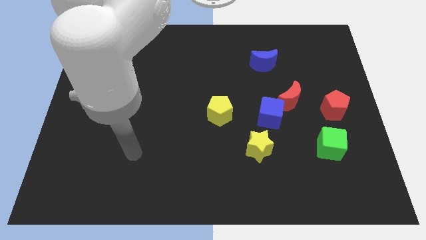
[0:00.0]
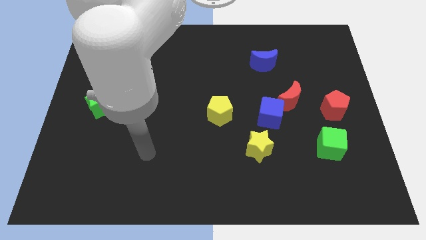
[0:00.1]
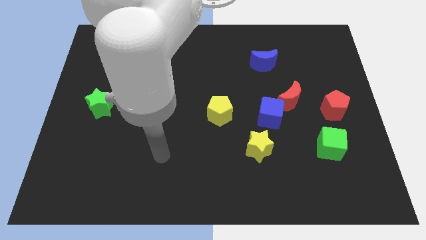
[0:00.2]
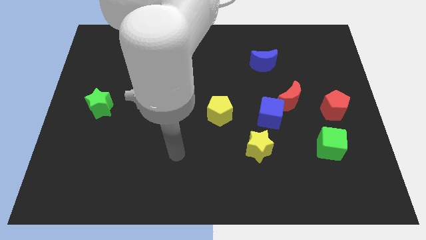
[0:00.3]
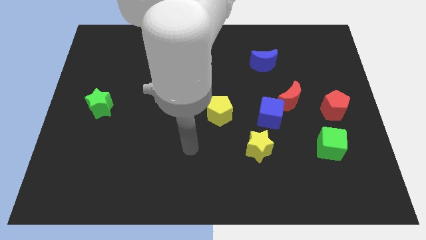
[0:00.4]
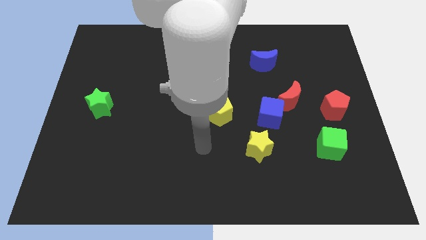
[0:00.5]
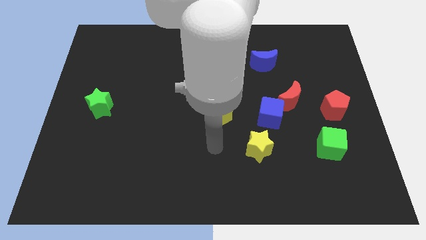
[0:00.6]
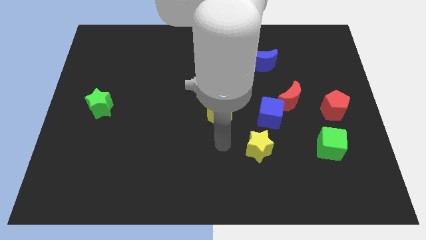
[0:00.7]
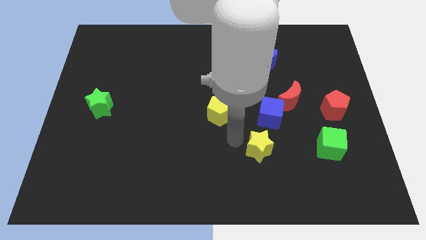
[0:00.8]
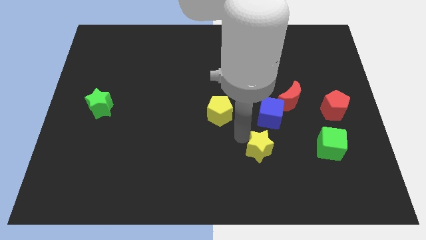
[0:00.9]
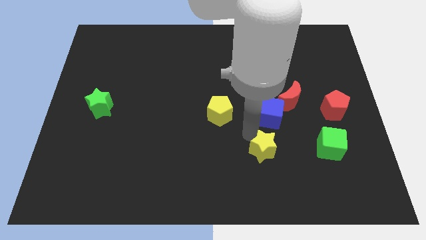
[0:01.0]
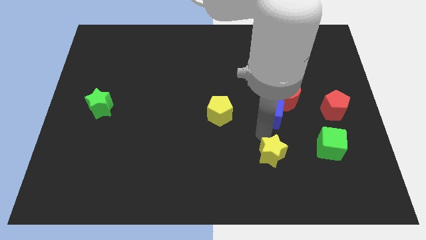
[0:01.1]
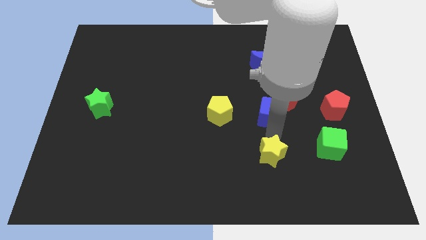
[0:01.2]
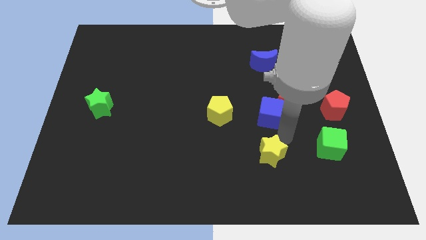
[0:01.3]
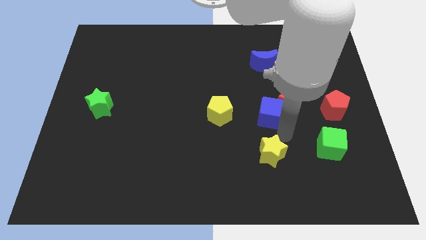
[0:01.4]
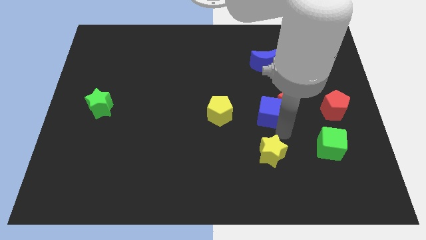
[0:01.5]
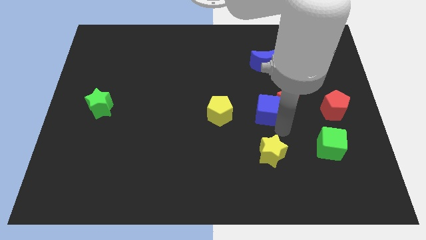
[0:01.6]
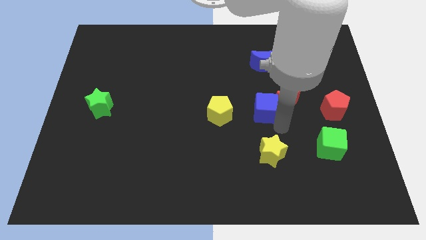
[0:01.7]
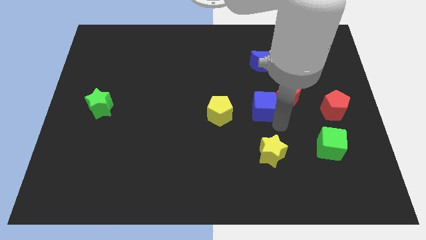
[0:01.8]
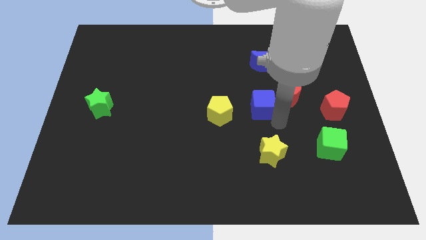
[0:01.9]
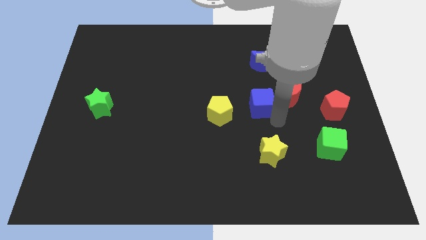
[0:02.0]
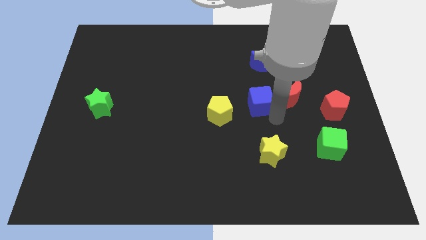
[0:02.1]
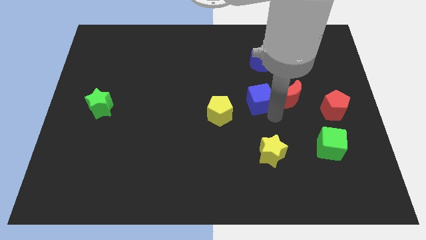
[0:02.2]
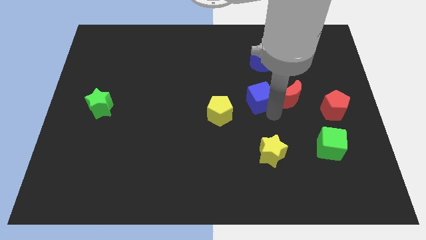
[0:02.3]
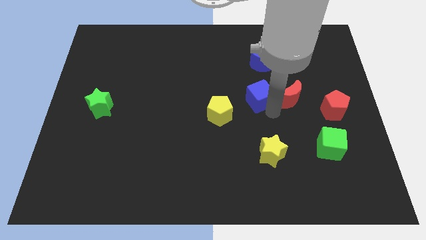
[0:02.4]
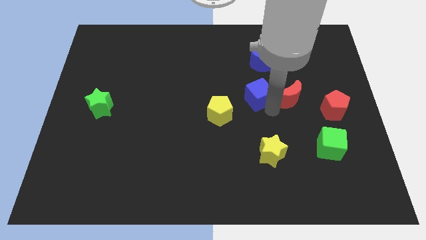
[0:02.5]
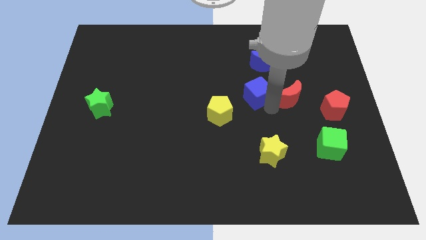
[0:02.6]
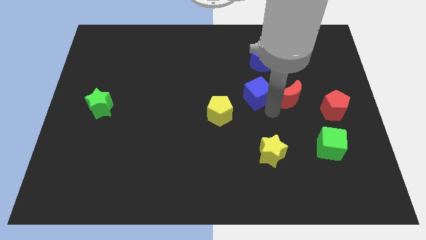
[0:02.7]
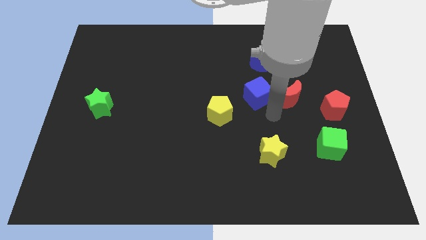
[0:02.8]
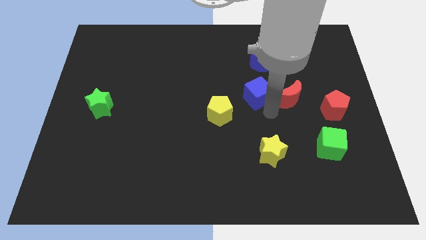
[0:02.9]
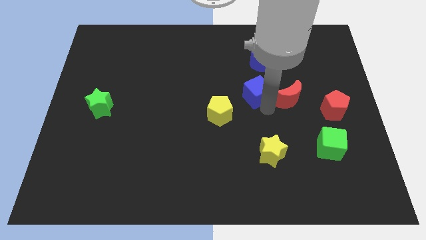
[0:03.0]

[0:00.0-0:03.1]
move the blue cube away from the red moon and yellow star

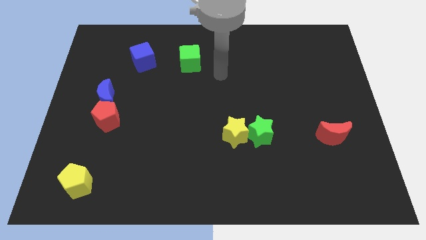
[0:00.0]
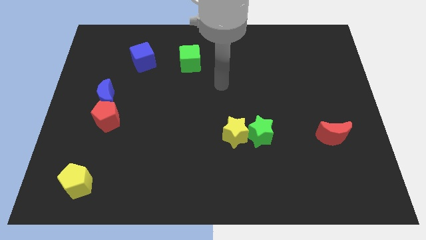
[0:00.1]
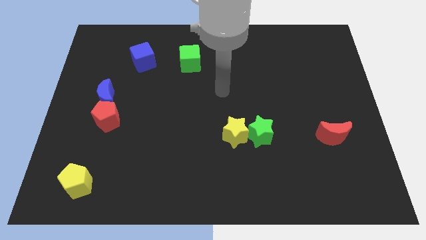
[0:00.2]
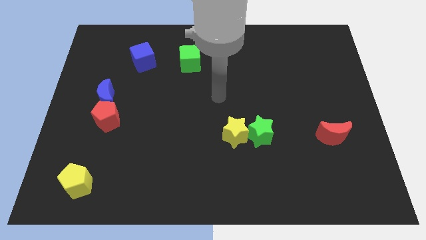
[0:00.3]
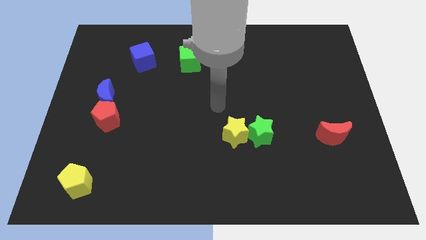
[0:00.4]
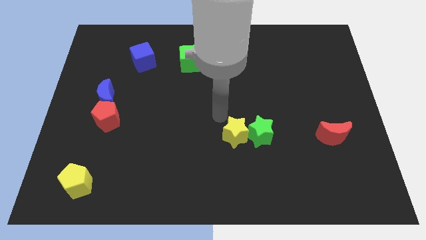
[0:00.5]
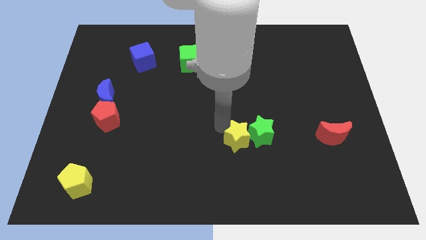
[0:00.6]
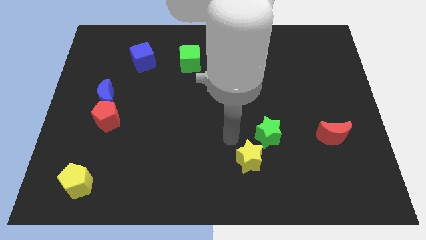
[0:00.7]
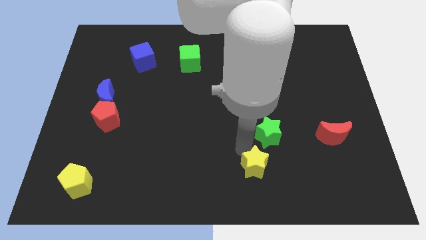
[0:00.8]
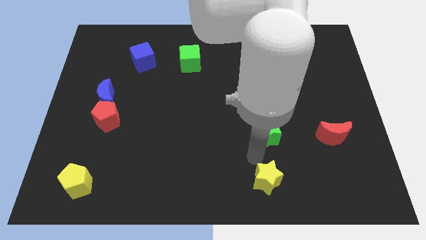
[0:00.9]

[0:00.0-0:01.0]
separate the green star from the yellow star

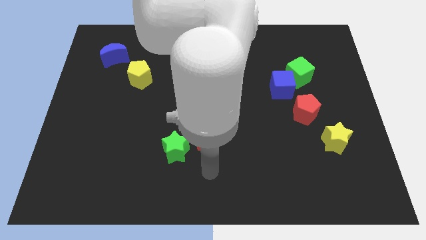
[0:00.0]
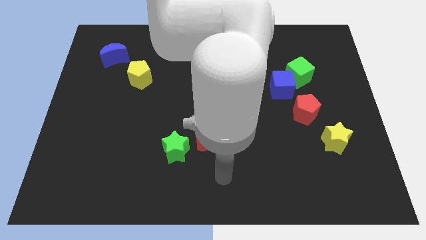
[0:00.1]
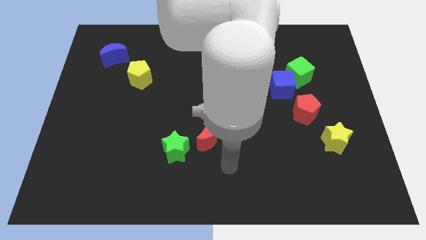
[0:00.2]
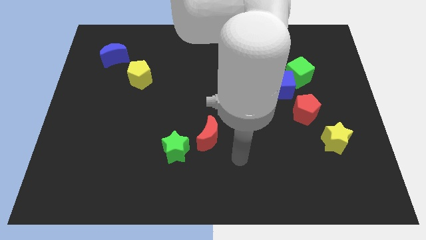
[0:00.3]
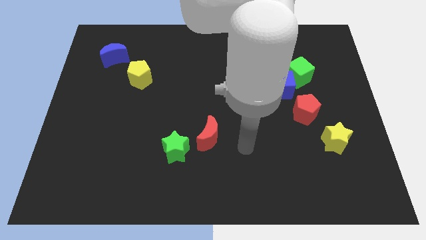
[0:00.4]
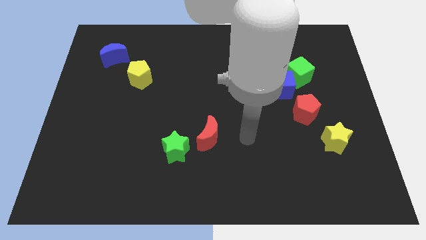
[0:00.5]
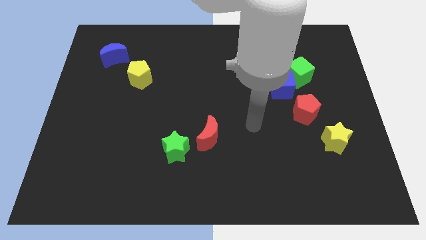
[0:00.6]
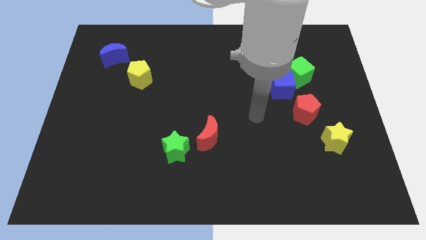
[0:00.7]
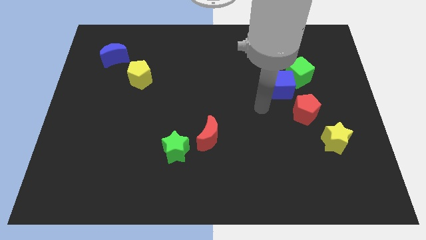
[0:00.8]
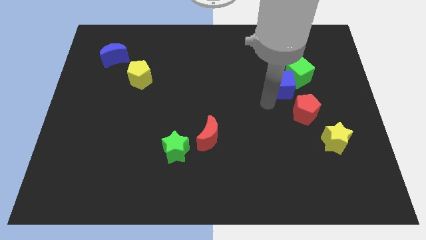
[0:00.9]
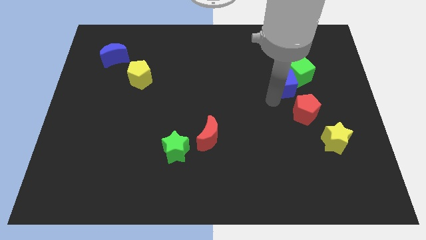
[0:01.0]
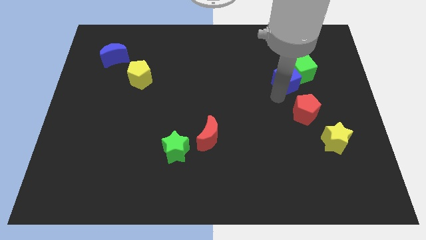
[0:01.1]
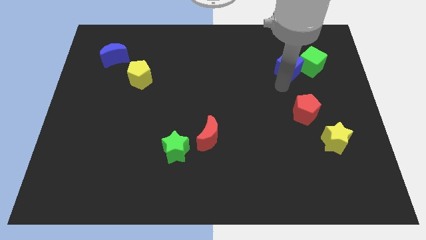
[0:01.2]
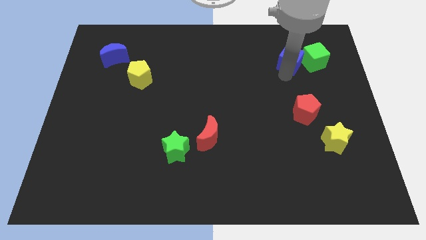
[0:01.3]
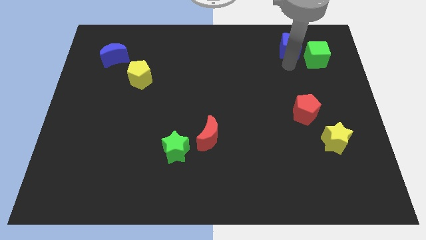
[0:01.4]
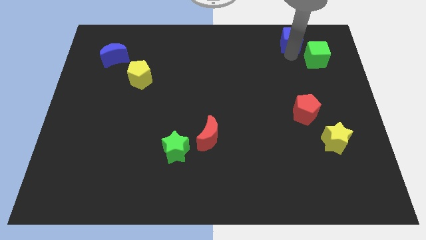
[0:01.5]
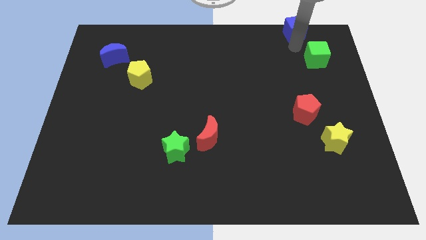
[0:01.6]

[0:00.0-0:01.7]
separate the green cube from the blue cube

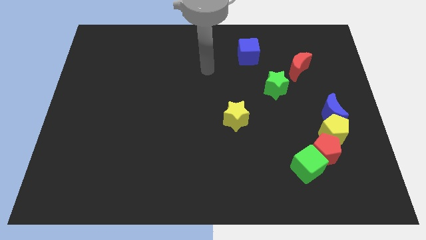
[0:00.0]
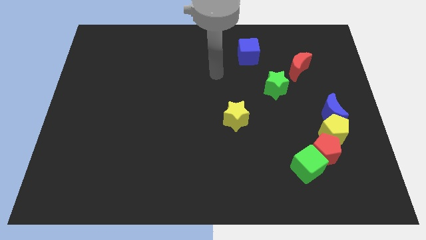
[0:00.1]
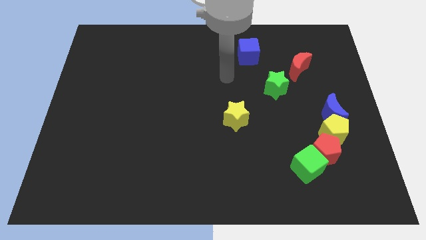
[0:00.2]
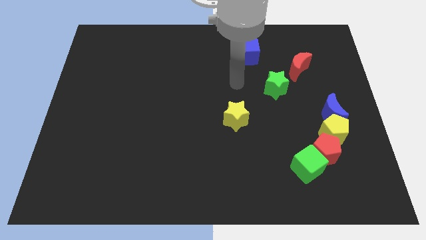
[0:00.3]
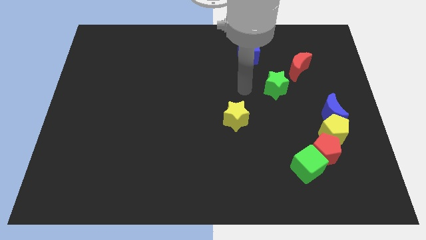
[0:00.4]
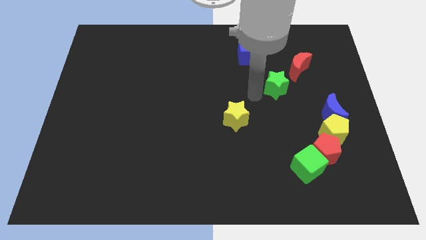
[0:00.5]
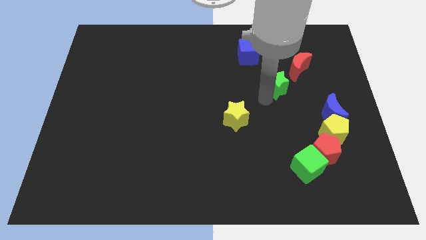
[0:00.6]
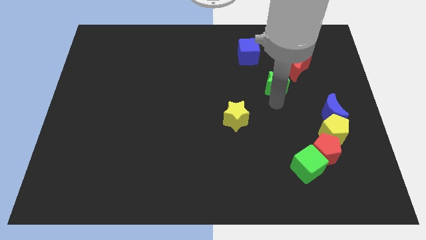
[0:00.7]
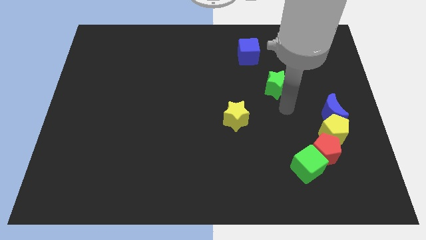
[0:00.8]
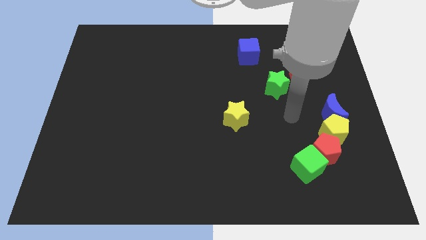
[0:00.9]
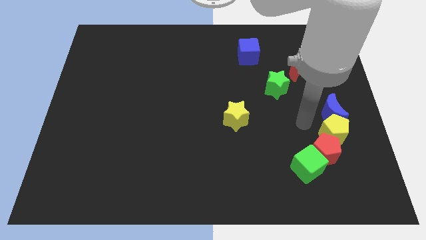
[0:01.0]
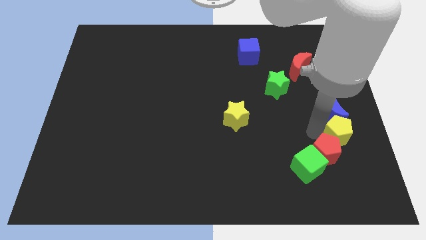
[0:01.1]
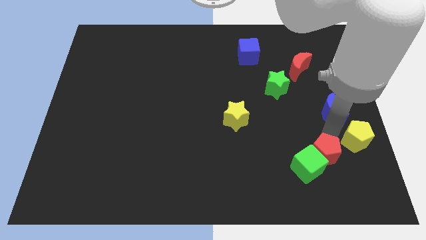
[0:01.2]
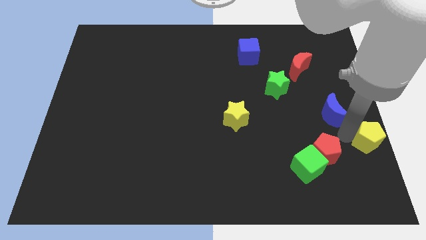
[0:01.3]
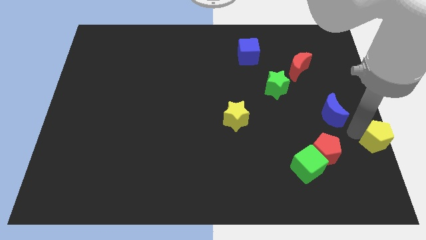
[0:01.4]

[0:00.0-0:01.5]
move the blue moon away from the yellow pentagon

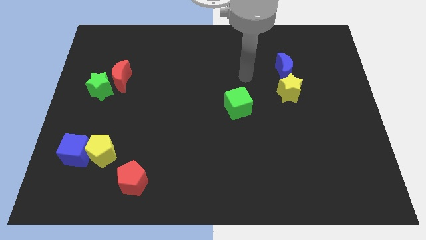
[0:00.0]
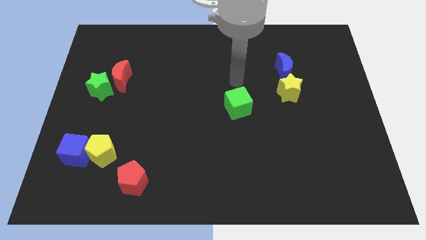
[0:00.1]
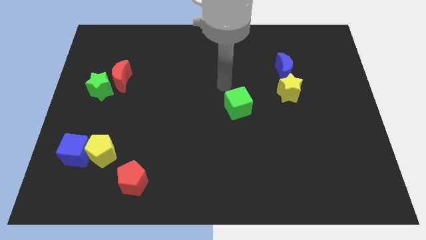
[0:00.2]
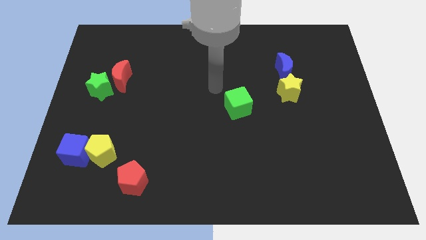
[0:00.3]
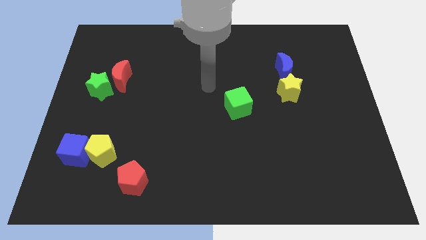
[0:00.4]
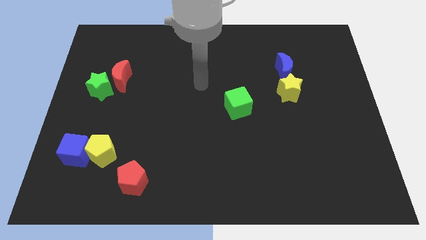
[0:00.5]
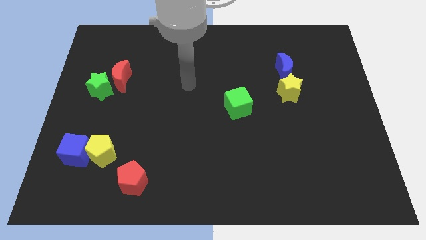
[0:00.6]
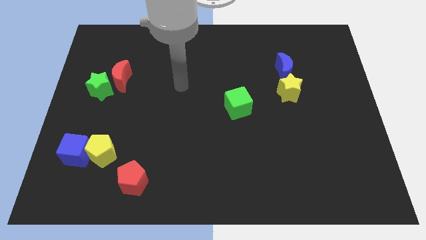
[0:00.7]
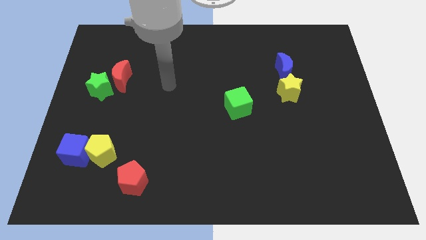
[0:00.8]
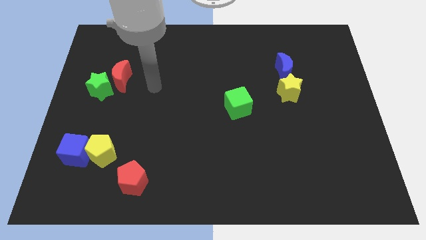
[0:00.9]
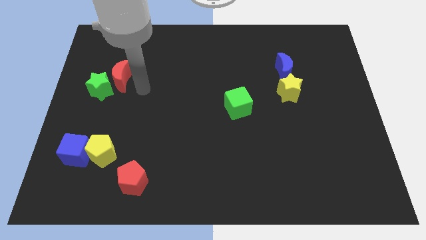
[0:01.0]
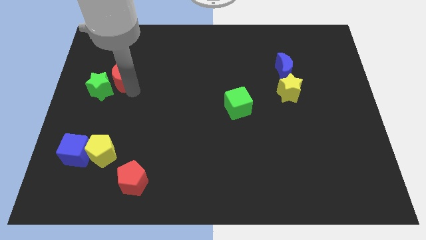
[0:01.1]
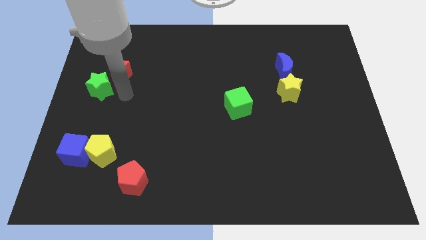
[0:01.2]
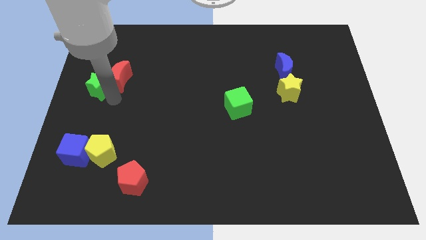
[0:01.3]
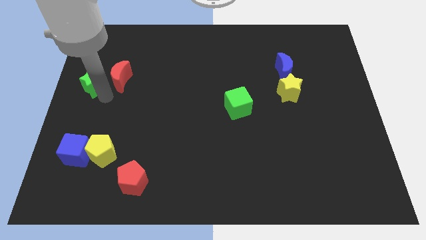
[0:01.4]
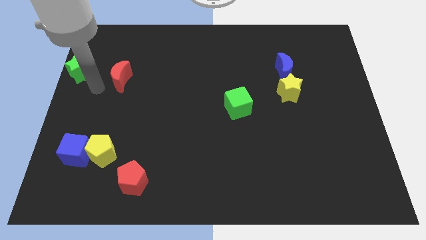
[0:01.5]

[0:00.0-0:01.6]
move the red moon away from the green star

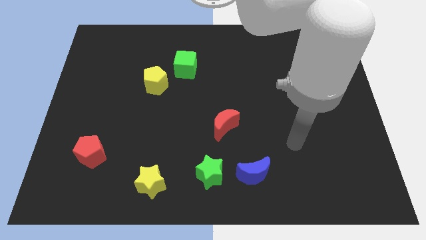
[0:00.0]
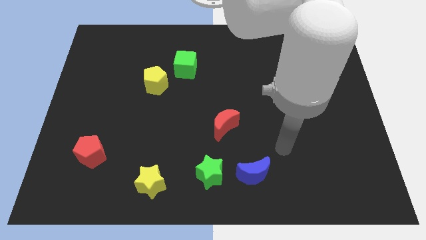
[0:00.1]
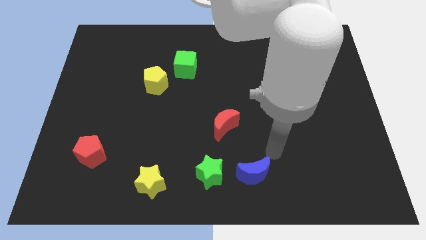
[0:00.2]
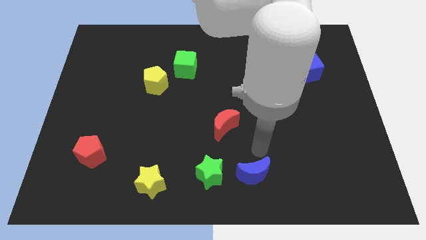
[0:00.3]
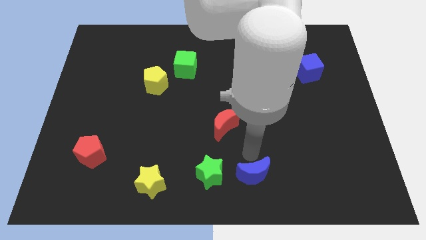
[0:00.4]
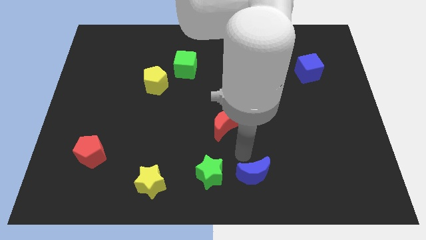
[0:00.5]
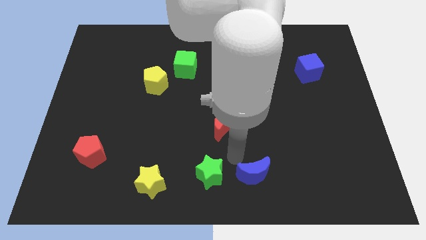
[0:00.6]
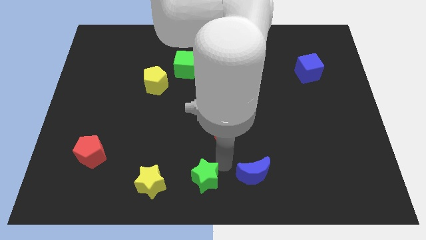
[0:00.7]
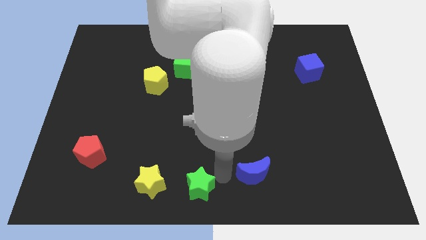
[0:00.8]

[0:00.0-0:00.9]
move the blue moon away from the green star
